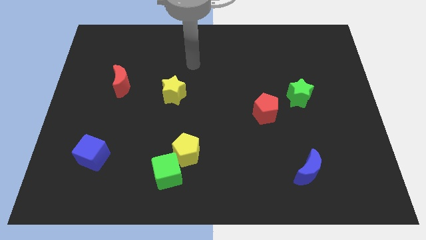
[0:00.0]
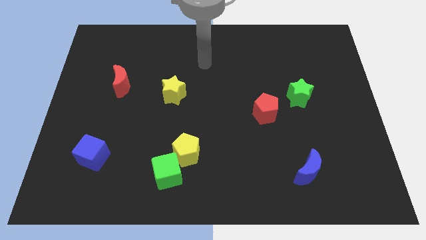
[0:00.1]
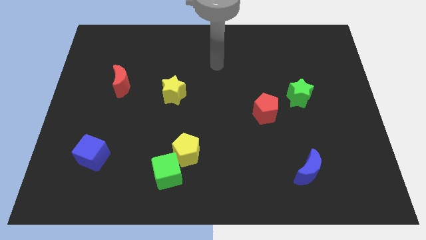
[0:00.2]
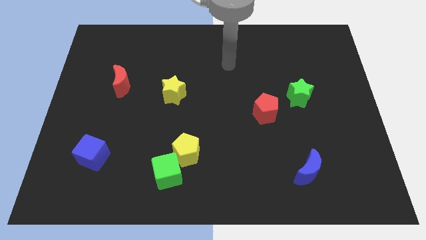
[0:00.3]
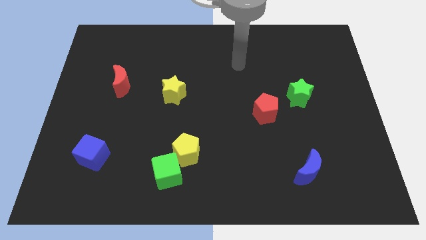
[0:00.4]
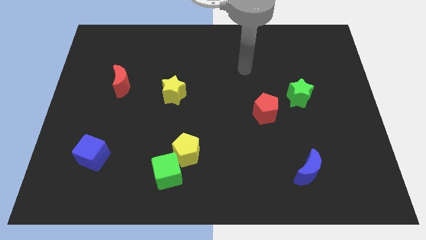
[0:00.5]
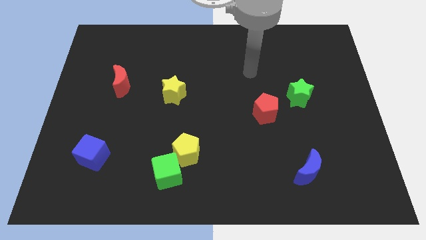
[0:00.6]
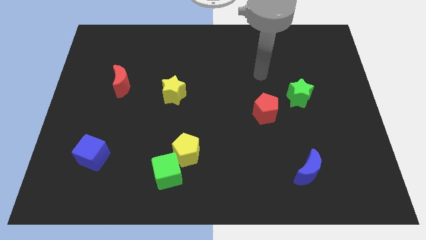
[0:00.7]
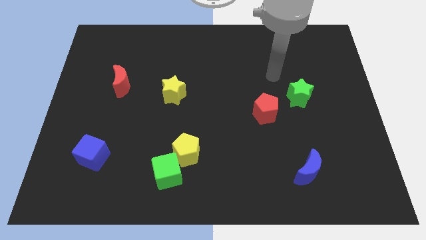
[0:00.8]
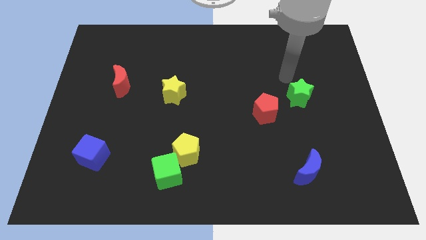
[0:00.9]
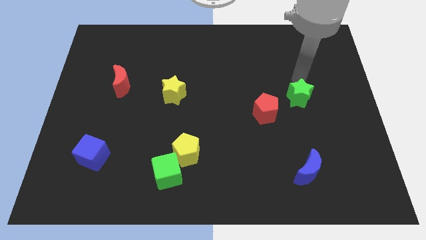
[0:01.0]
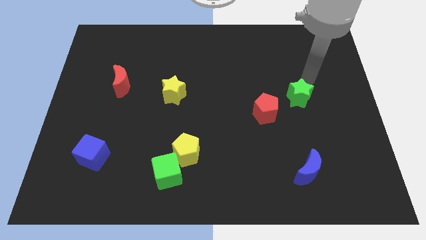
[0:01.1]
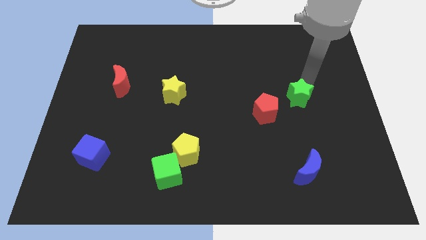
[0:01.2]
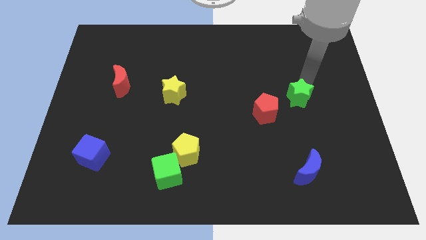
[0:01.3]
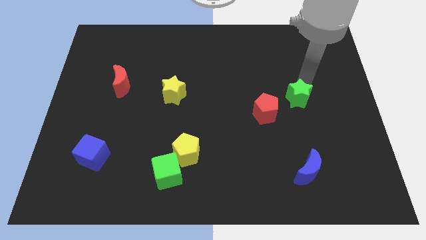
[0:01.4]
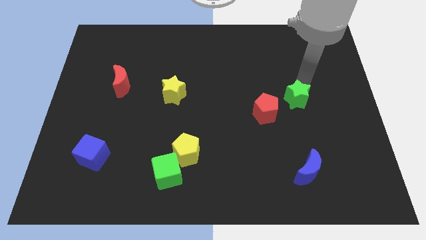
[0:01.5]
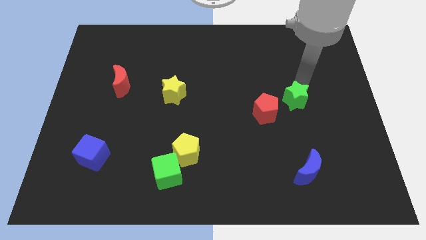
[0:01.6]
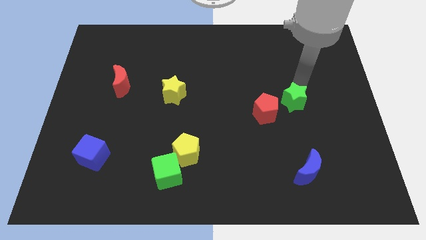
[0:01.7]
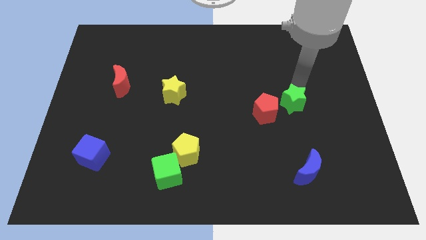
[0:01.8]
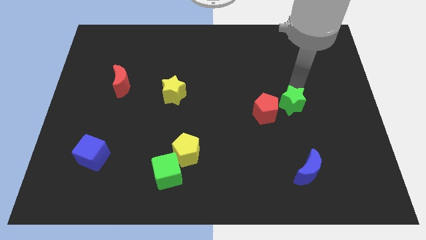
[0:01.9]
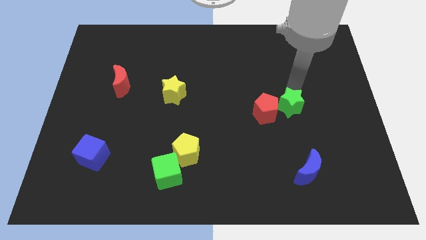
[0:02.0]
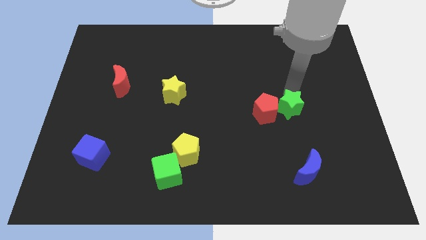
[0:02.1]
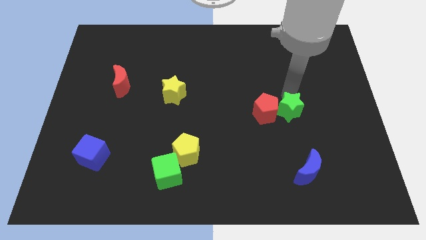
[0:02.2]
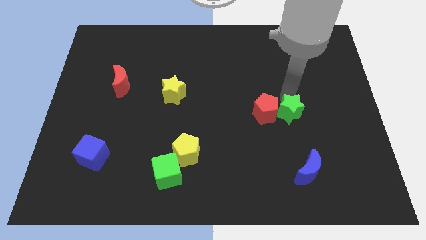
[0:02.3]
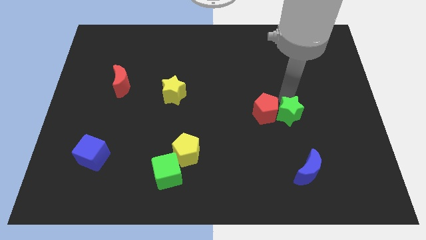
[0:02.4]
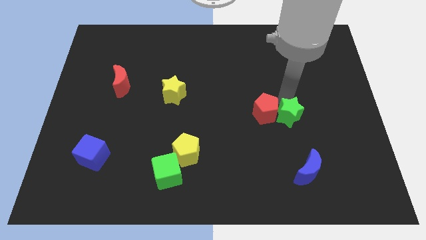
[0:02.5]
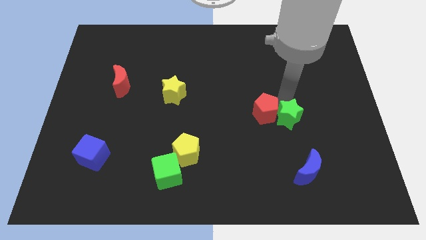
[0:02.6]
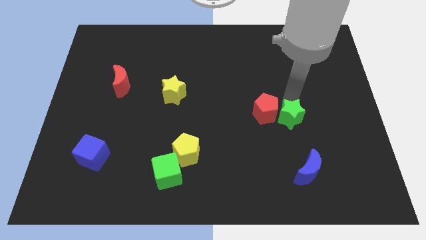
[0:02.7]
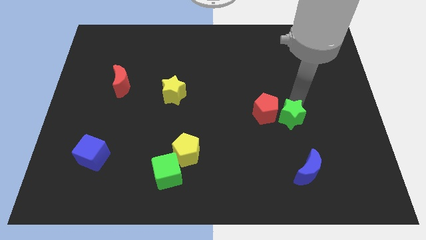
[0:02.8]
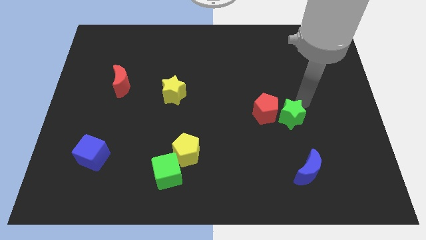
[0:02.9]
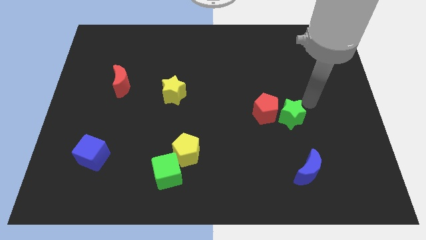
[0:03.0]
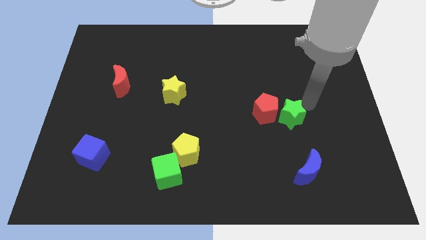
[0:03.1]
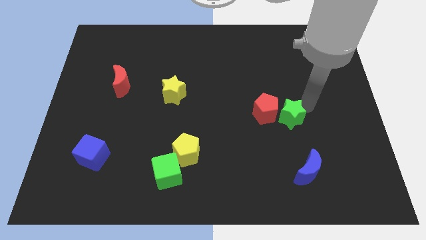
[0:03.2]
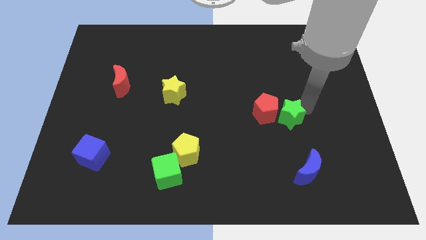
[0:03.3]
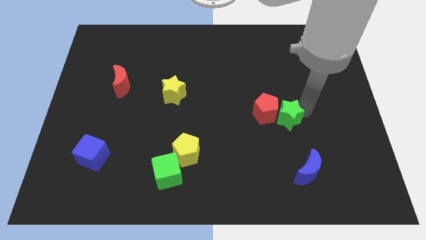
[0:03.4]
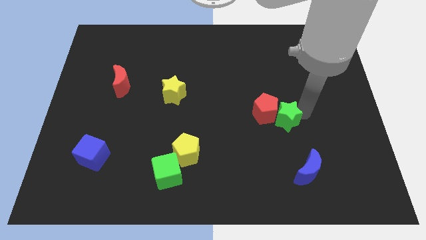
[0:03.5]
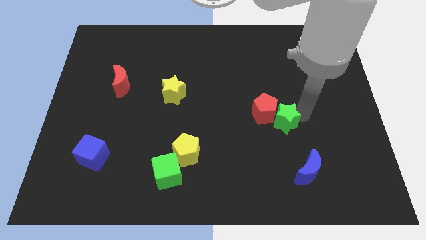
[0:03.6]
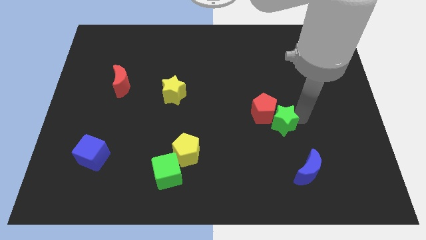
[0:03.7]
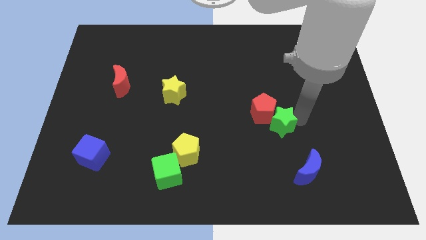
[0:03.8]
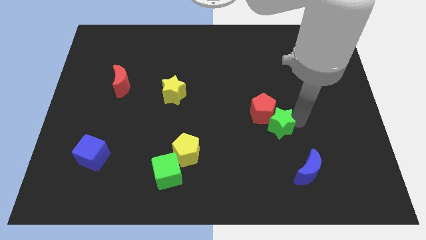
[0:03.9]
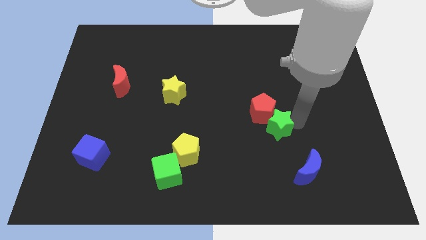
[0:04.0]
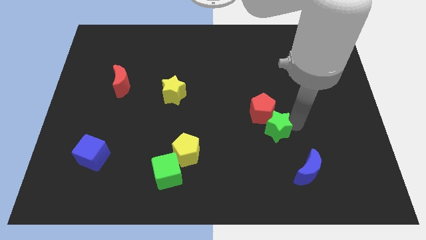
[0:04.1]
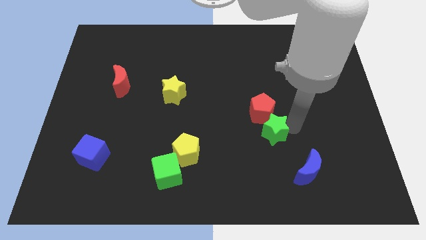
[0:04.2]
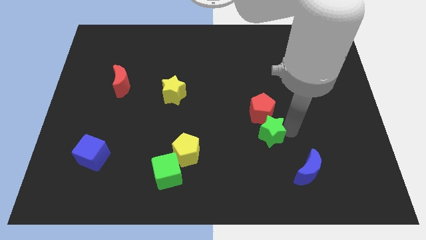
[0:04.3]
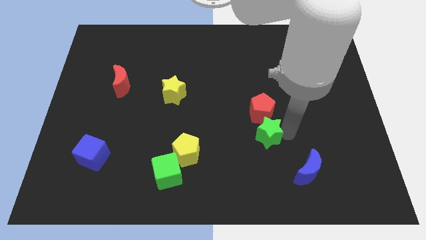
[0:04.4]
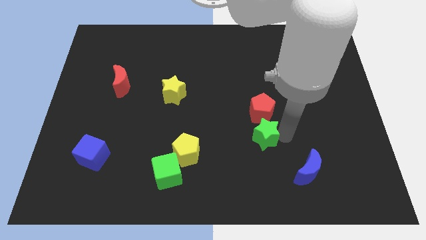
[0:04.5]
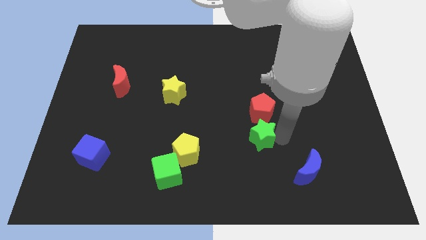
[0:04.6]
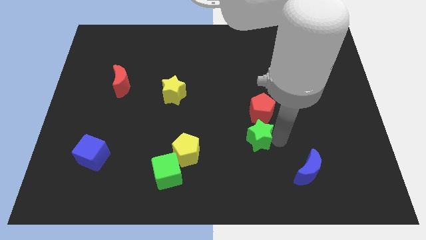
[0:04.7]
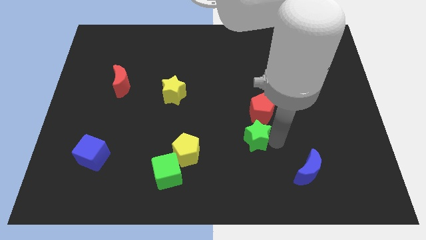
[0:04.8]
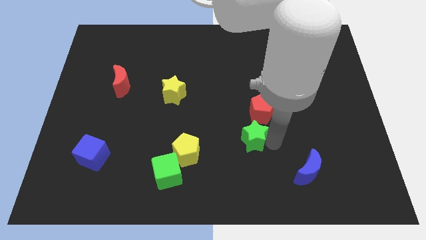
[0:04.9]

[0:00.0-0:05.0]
slide the green star to the right of the yellow pentagon

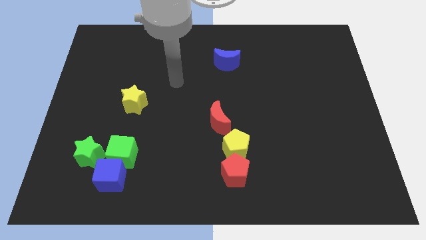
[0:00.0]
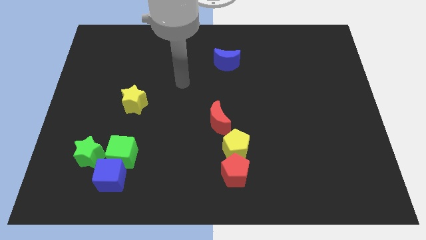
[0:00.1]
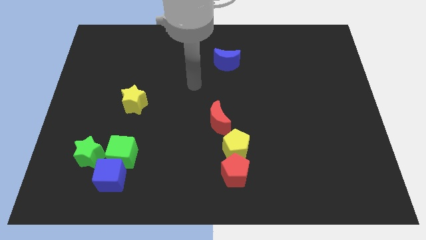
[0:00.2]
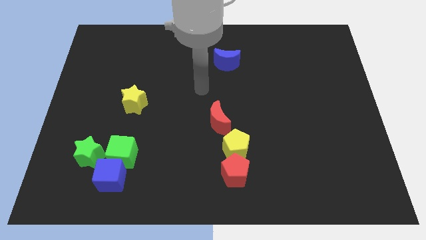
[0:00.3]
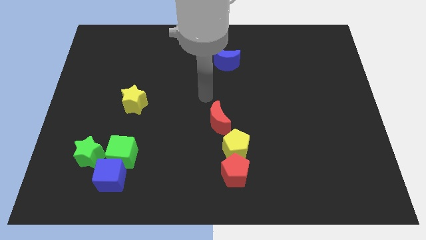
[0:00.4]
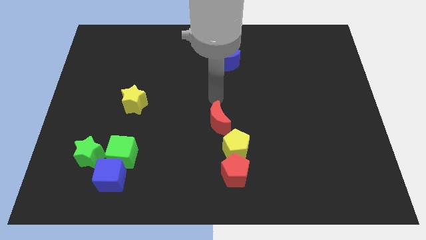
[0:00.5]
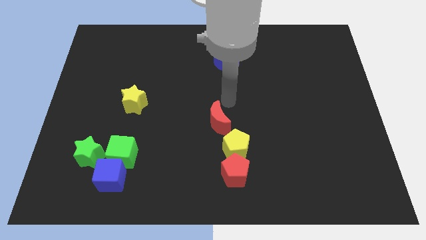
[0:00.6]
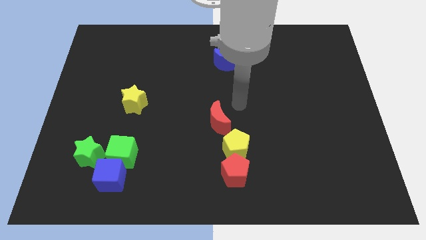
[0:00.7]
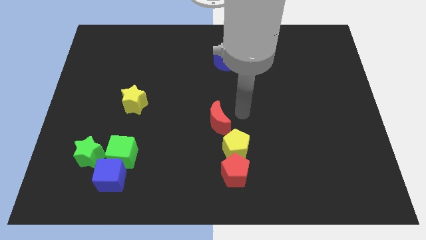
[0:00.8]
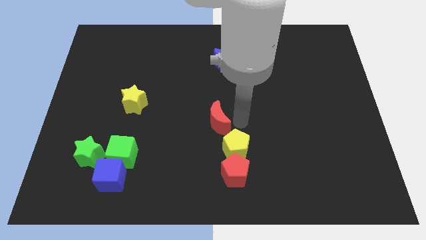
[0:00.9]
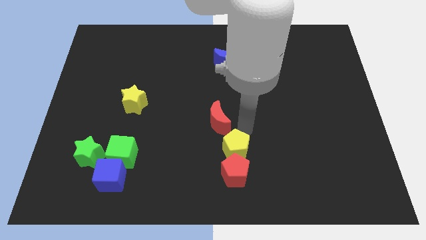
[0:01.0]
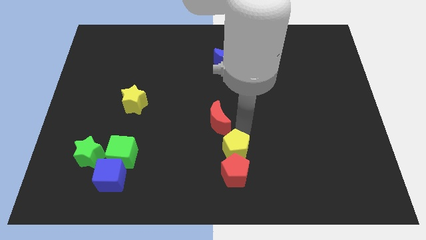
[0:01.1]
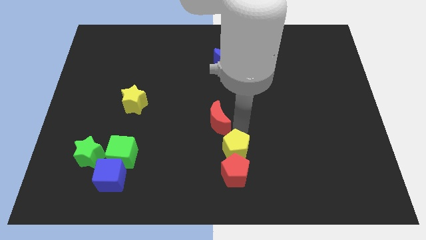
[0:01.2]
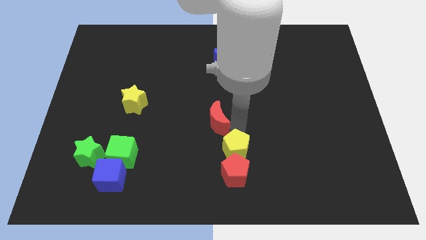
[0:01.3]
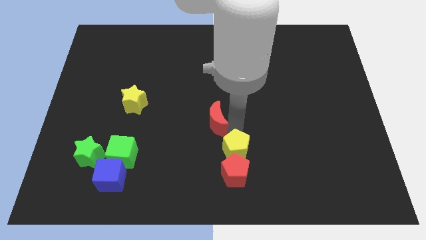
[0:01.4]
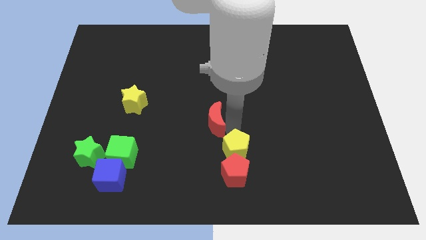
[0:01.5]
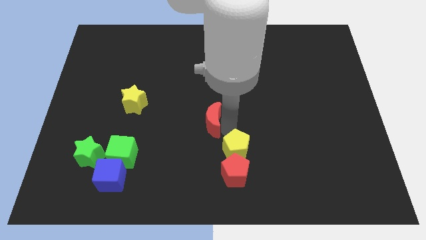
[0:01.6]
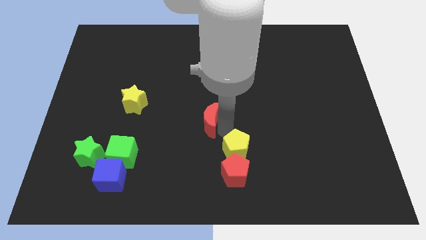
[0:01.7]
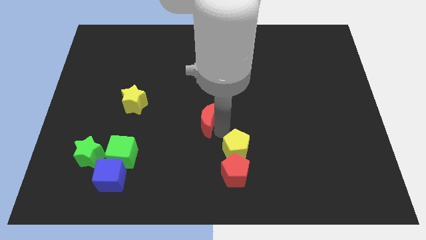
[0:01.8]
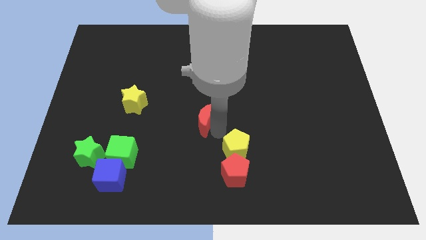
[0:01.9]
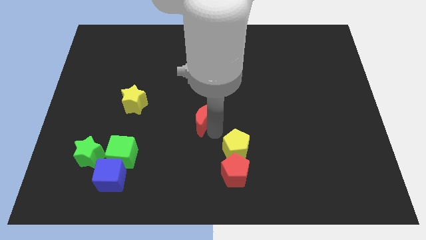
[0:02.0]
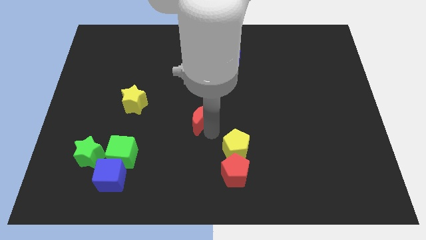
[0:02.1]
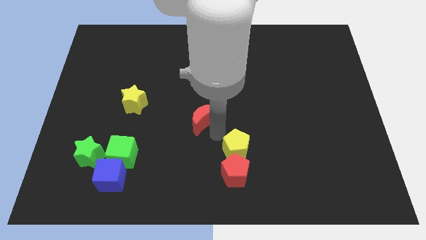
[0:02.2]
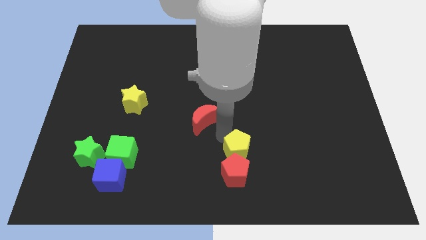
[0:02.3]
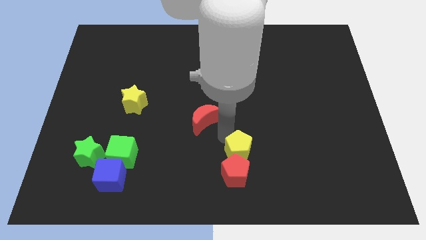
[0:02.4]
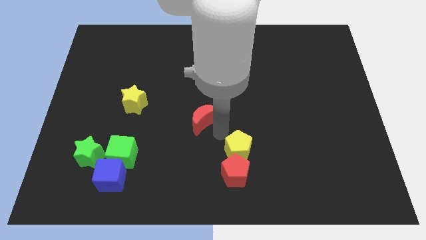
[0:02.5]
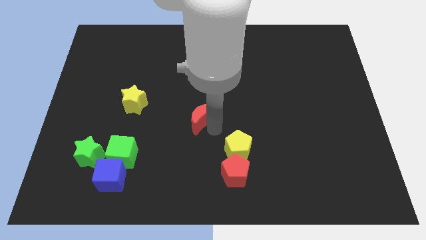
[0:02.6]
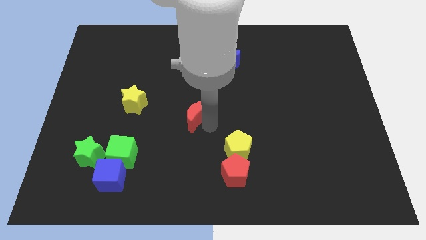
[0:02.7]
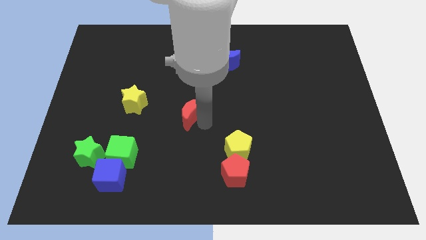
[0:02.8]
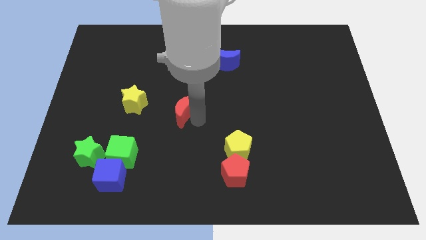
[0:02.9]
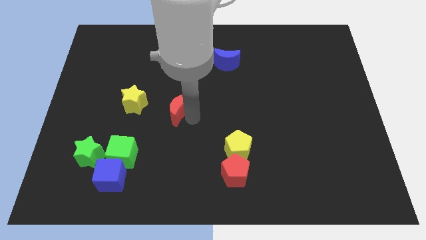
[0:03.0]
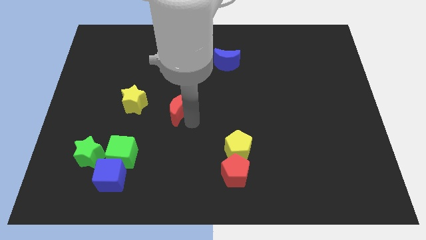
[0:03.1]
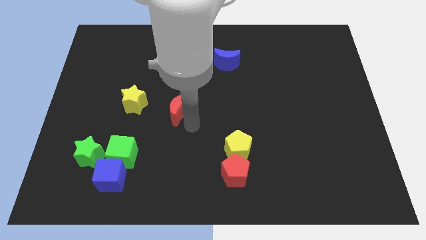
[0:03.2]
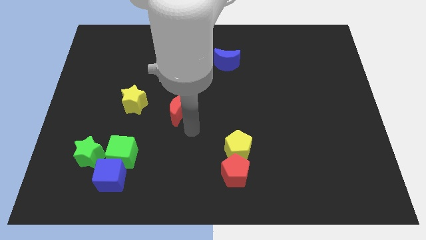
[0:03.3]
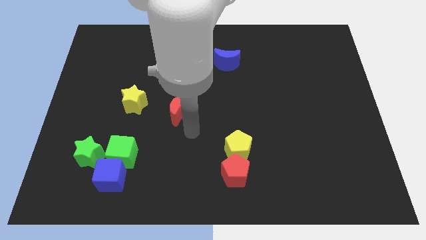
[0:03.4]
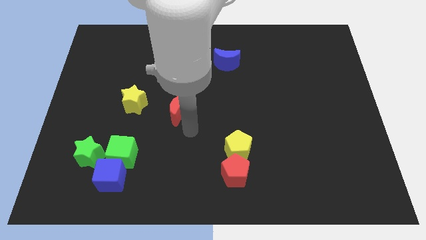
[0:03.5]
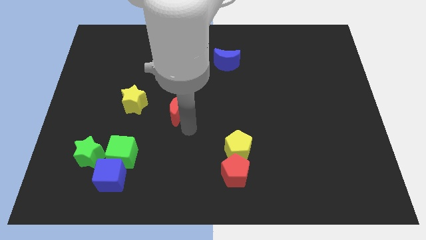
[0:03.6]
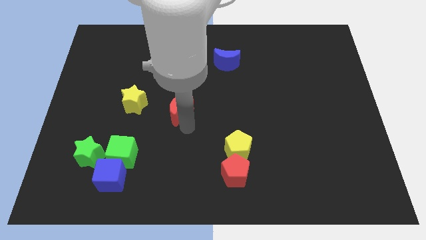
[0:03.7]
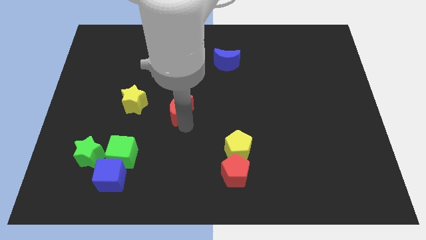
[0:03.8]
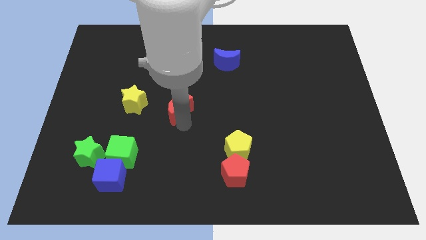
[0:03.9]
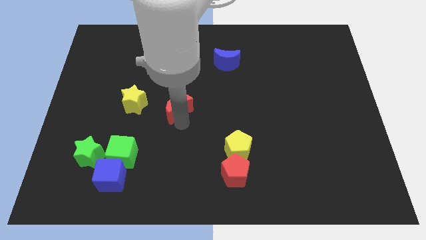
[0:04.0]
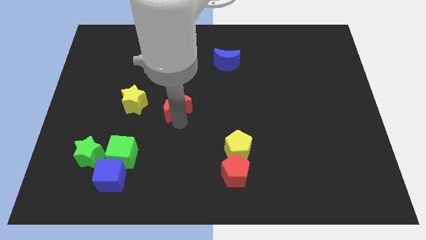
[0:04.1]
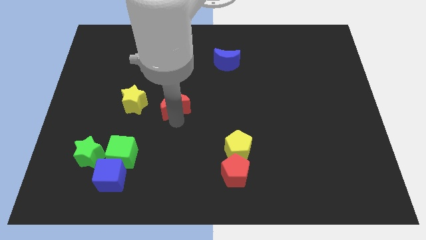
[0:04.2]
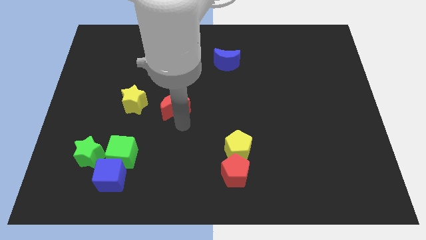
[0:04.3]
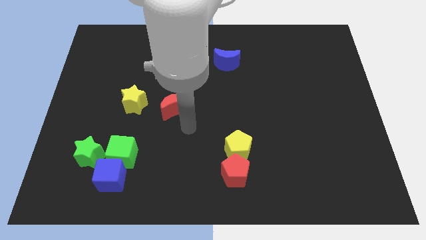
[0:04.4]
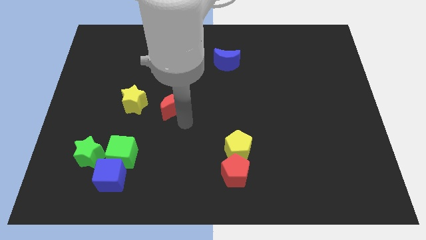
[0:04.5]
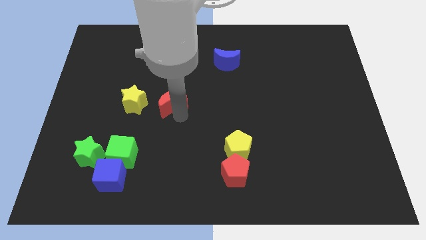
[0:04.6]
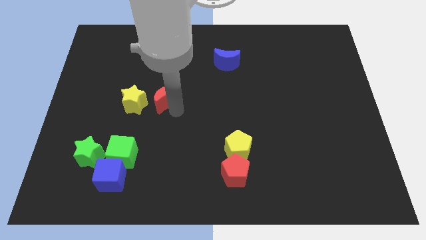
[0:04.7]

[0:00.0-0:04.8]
slide the red moon diagonally up and to the right of the yellow star
